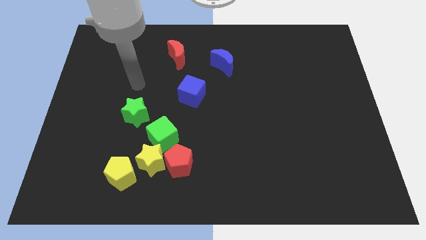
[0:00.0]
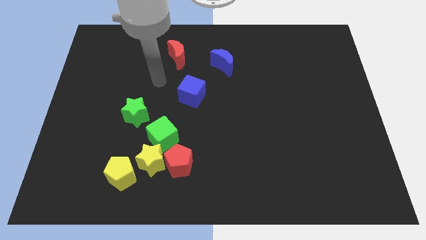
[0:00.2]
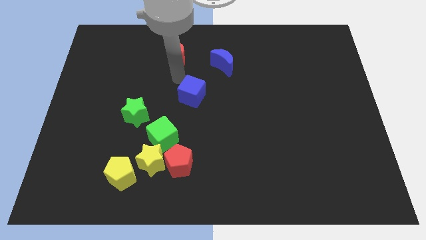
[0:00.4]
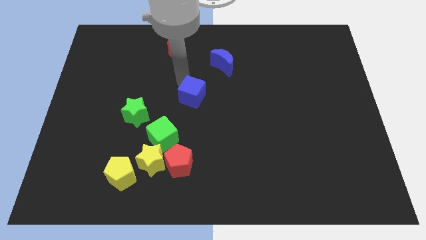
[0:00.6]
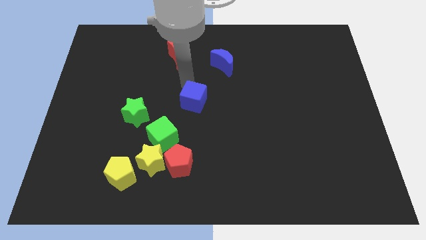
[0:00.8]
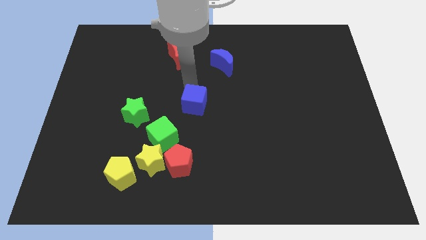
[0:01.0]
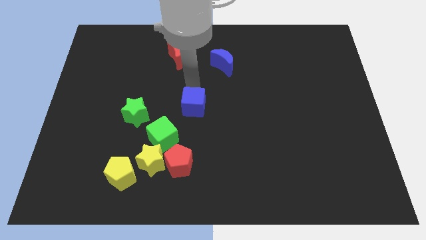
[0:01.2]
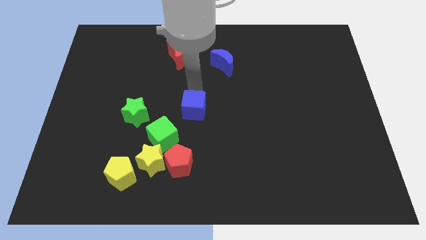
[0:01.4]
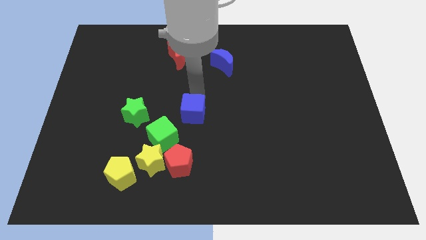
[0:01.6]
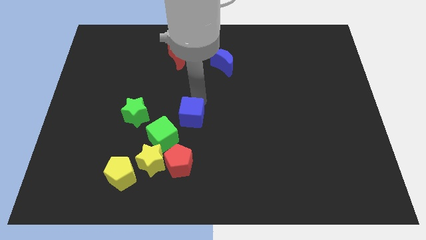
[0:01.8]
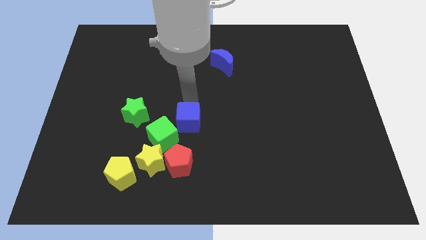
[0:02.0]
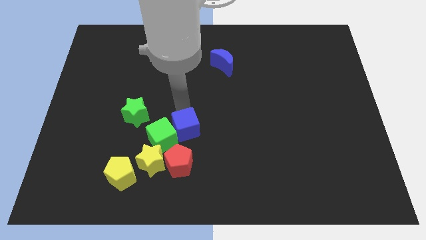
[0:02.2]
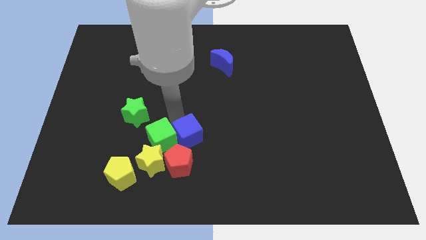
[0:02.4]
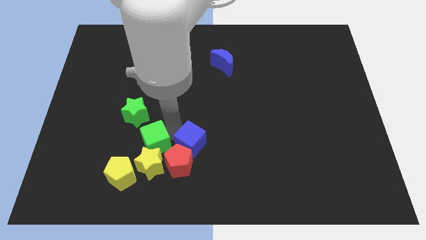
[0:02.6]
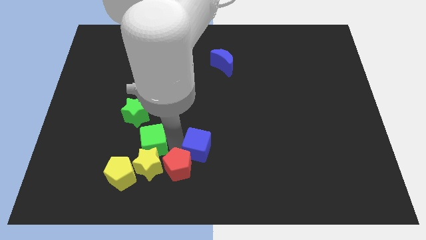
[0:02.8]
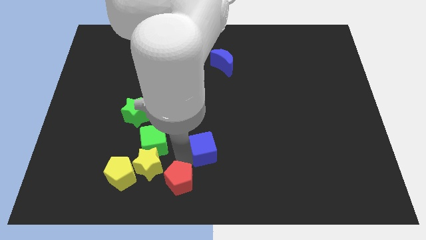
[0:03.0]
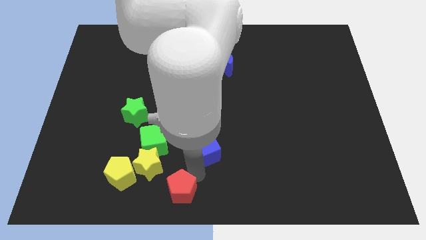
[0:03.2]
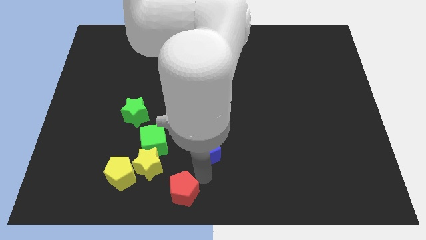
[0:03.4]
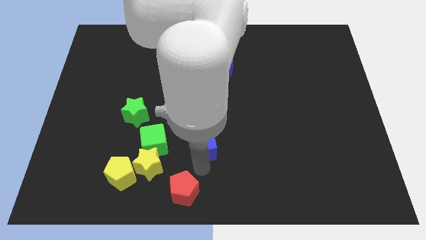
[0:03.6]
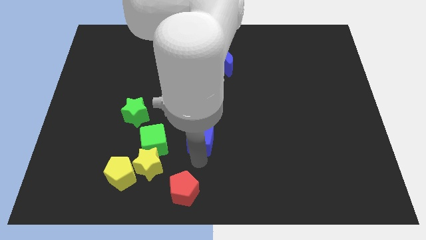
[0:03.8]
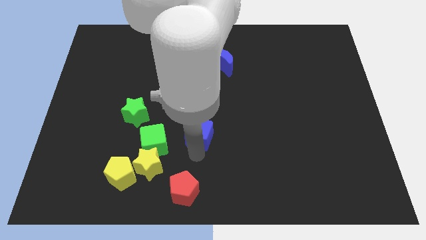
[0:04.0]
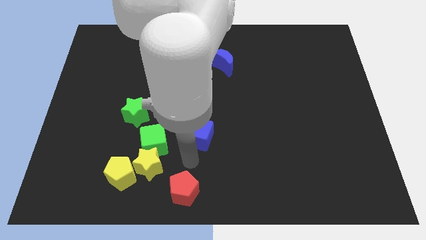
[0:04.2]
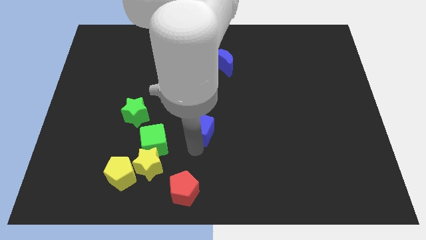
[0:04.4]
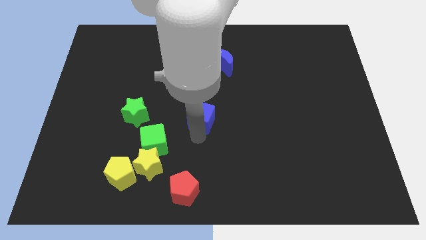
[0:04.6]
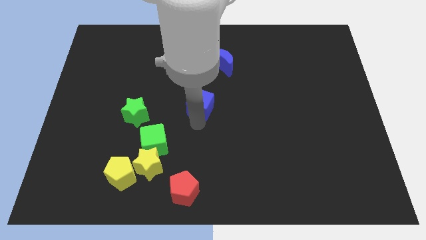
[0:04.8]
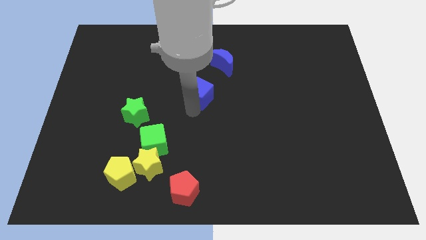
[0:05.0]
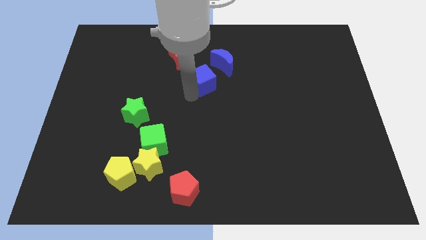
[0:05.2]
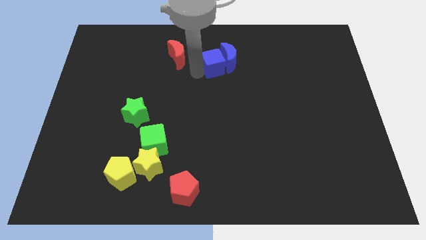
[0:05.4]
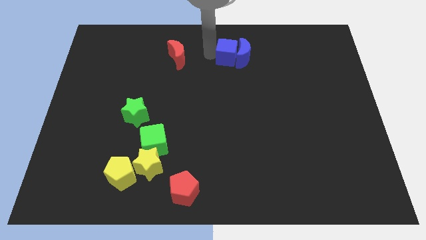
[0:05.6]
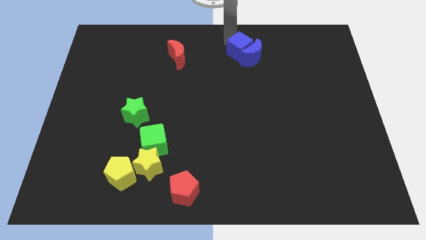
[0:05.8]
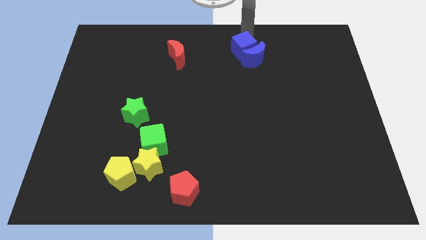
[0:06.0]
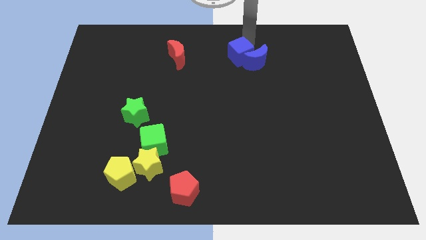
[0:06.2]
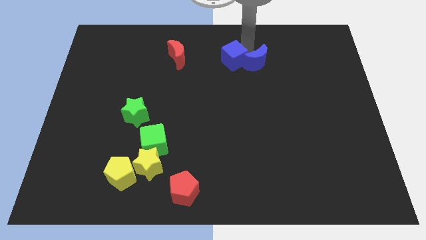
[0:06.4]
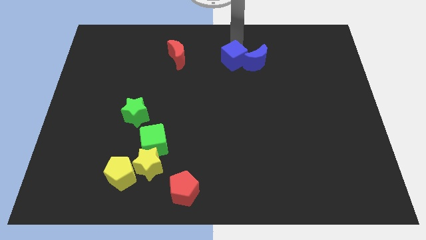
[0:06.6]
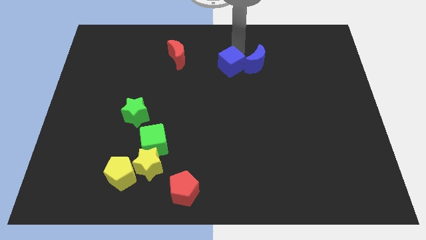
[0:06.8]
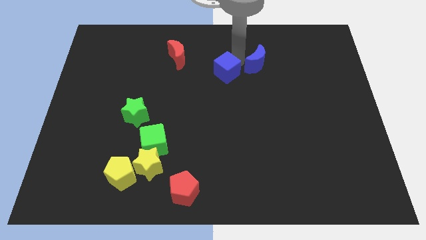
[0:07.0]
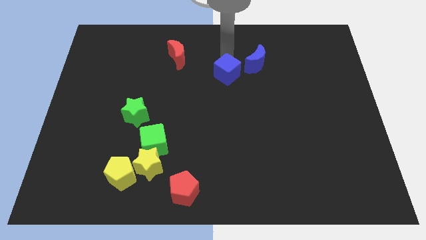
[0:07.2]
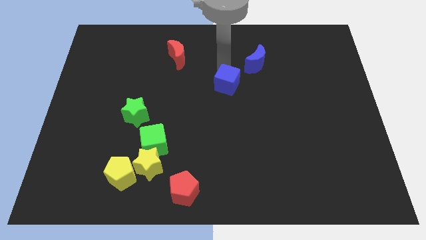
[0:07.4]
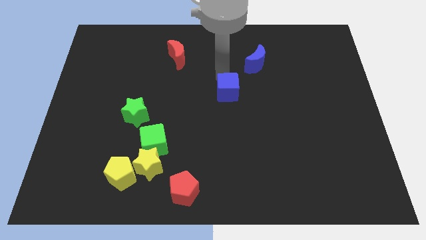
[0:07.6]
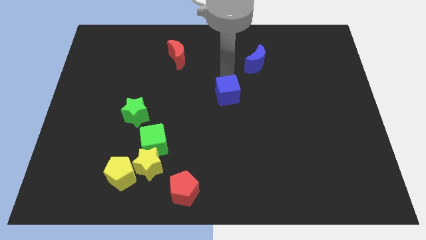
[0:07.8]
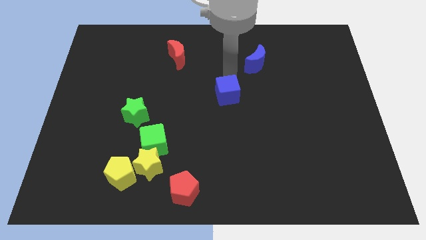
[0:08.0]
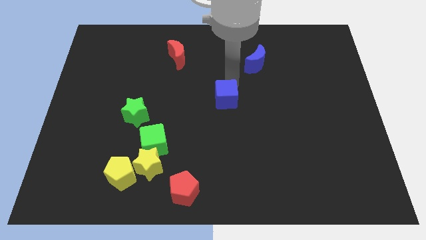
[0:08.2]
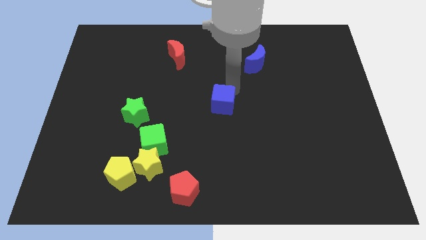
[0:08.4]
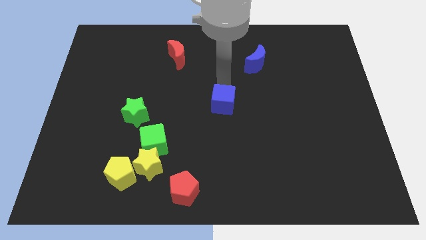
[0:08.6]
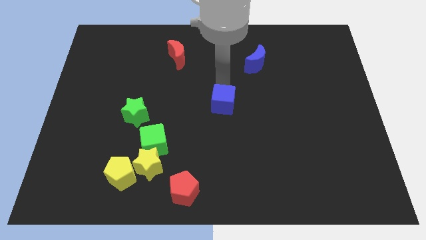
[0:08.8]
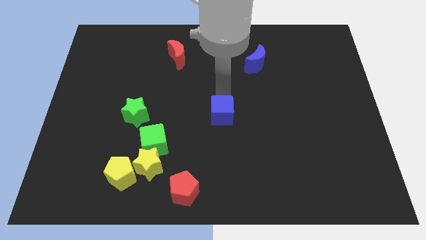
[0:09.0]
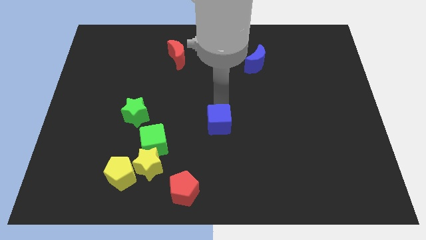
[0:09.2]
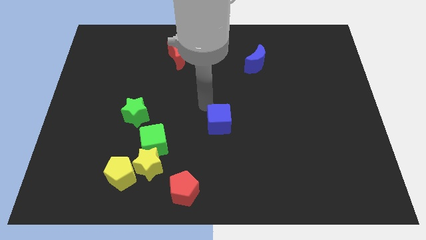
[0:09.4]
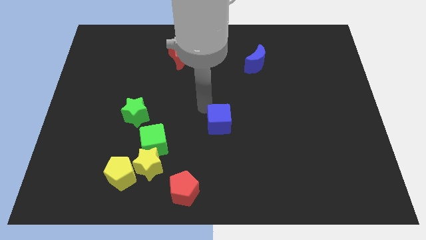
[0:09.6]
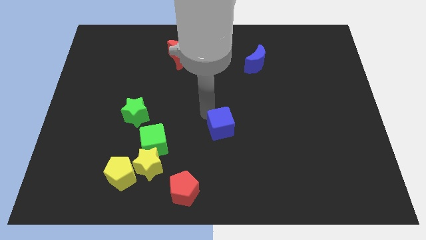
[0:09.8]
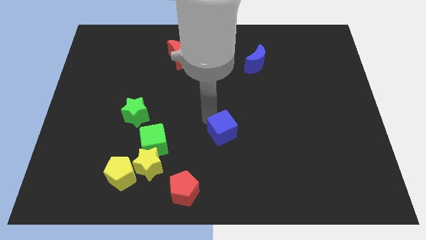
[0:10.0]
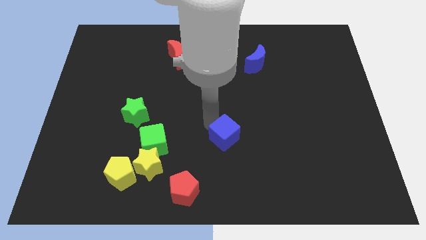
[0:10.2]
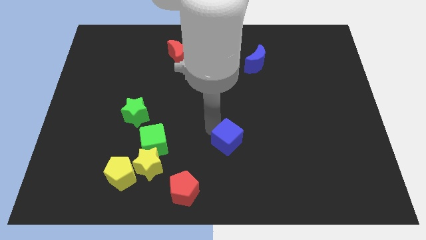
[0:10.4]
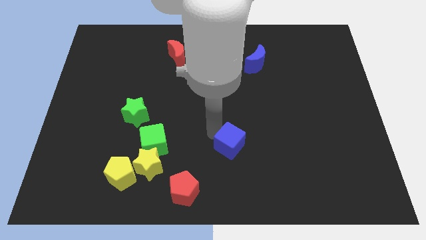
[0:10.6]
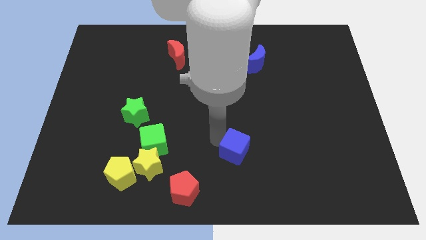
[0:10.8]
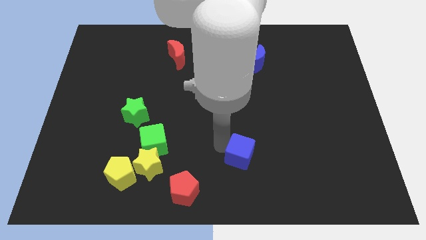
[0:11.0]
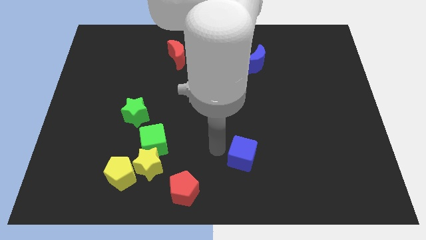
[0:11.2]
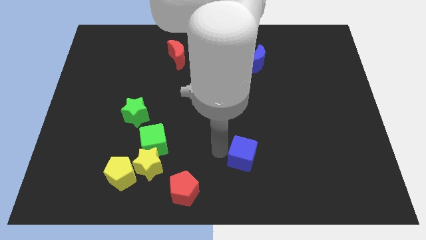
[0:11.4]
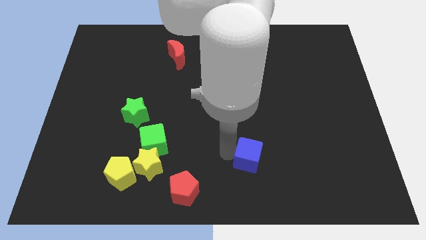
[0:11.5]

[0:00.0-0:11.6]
slide the blue cube diagonally down and right

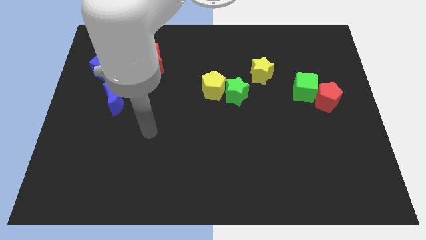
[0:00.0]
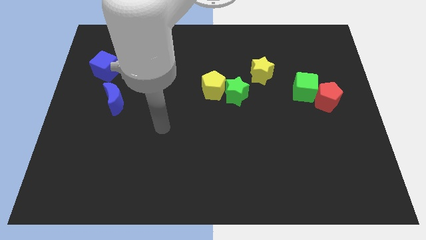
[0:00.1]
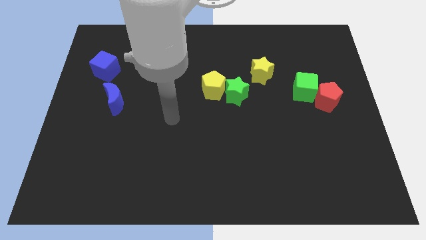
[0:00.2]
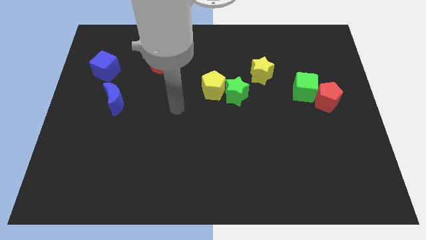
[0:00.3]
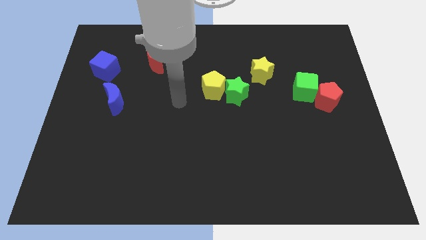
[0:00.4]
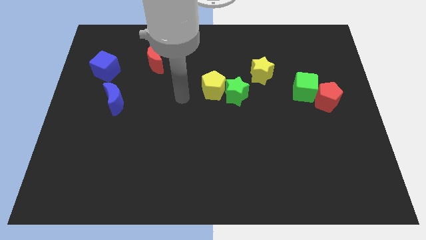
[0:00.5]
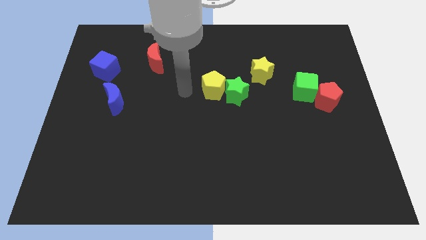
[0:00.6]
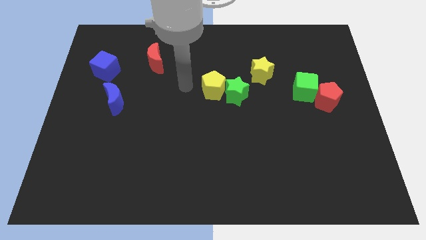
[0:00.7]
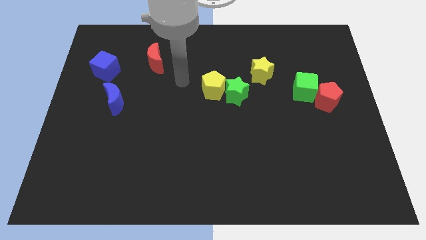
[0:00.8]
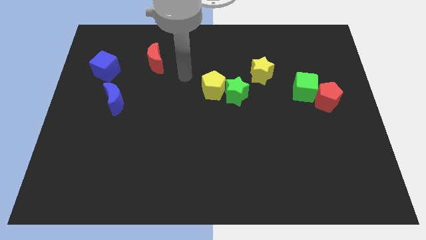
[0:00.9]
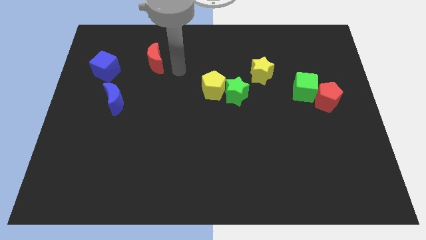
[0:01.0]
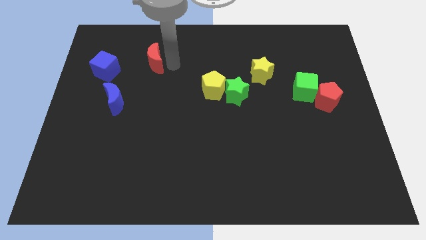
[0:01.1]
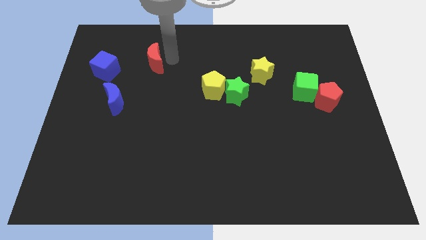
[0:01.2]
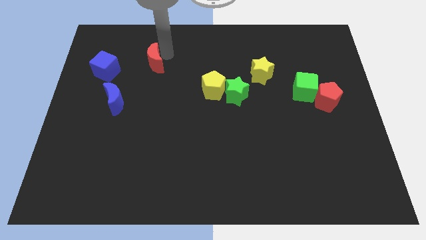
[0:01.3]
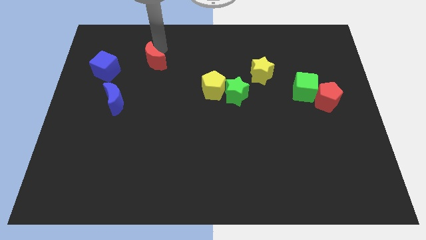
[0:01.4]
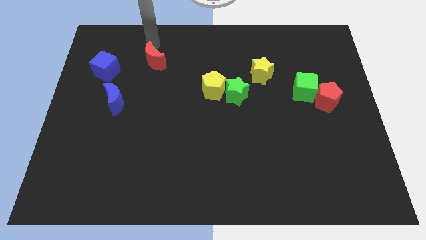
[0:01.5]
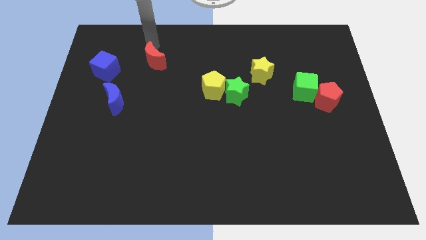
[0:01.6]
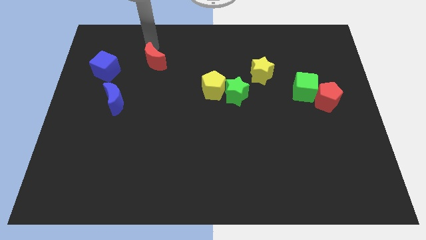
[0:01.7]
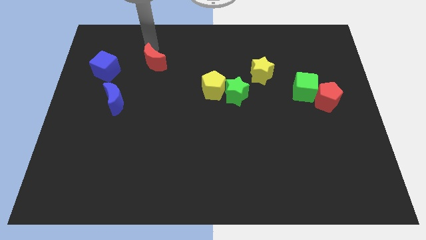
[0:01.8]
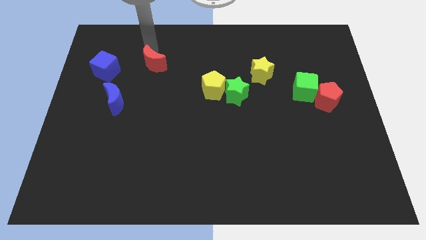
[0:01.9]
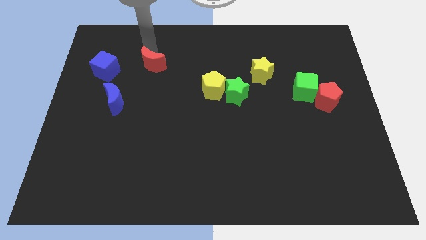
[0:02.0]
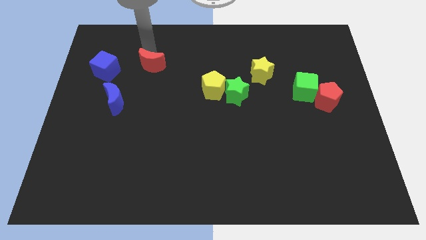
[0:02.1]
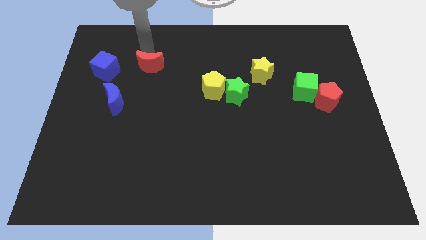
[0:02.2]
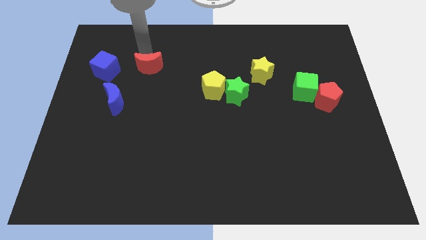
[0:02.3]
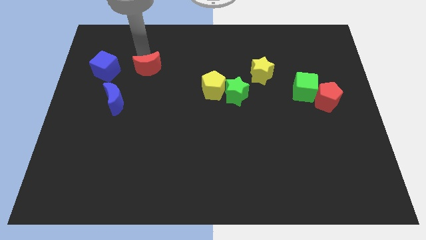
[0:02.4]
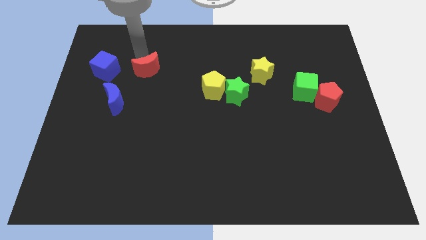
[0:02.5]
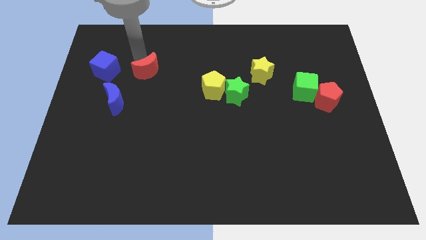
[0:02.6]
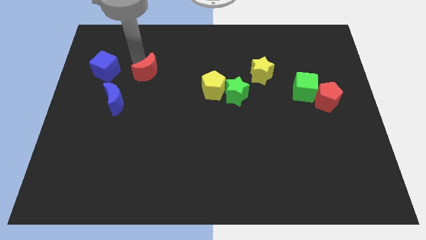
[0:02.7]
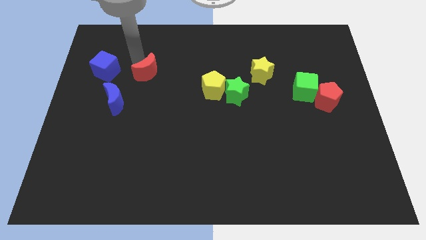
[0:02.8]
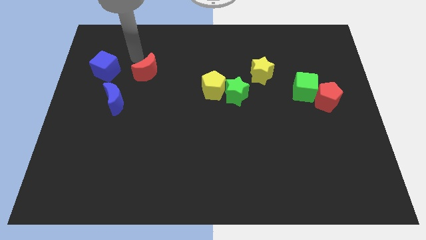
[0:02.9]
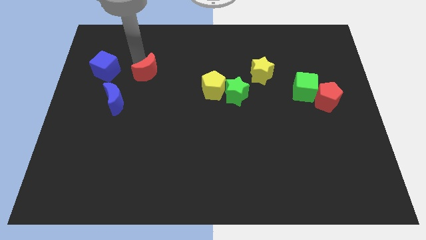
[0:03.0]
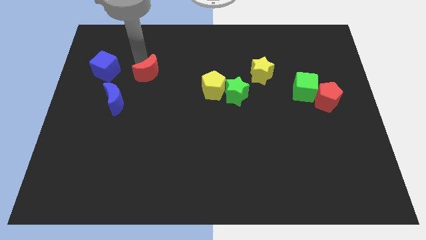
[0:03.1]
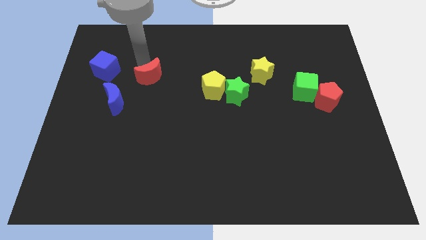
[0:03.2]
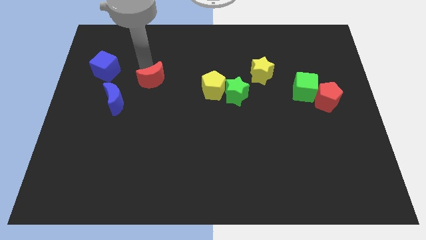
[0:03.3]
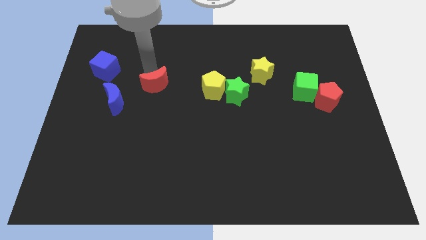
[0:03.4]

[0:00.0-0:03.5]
slide the red moon a little downwards
